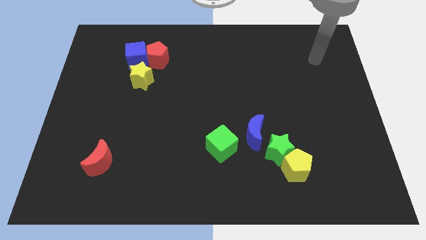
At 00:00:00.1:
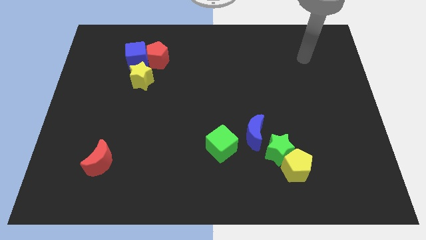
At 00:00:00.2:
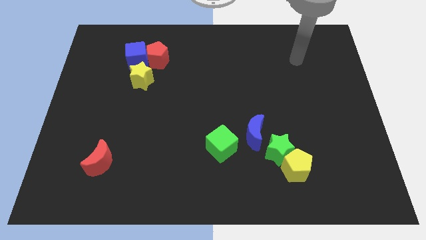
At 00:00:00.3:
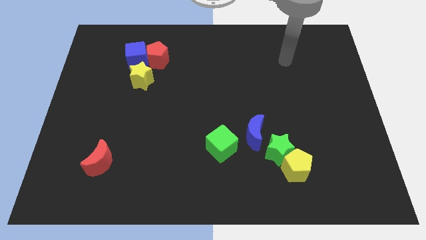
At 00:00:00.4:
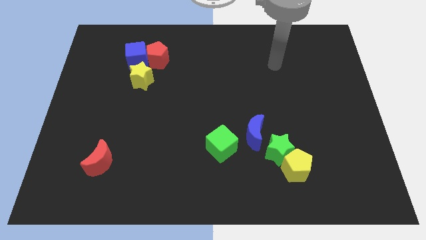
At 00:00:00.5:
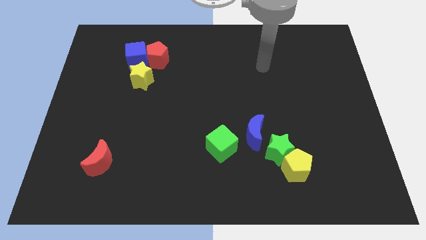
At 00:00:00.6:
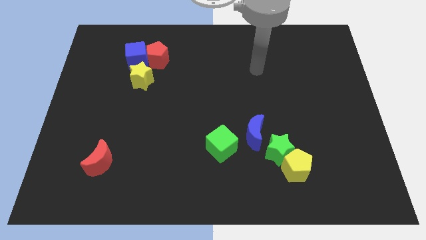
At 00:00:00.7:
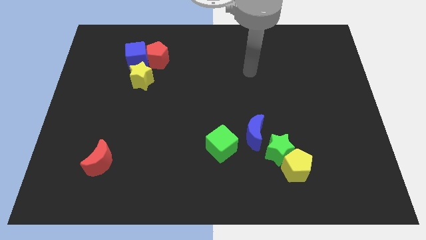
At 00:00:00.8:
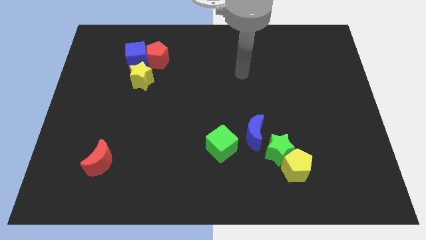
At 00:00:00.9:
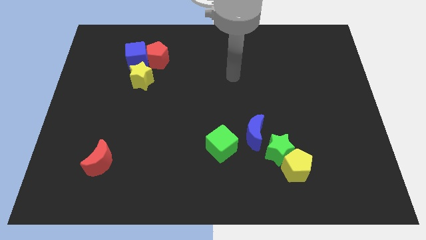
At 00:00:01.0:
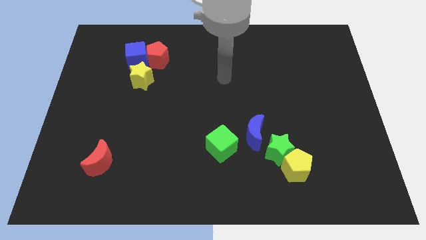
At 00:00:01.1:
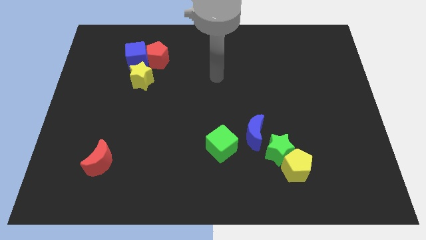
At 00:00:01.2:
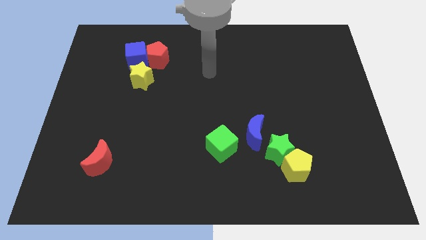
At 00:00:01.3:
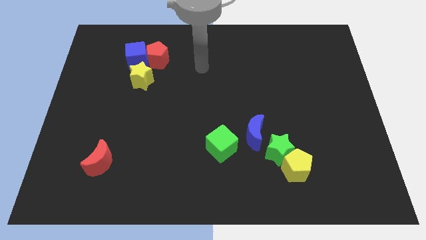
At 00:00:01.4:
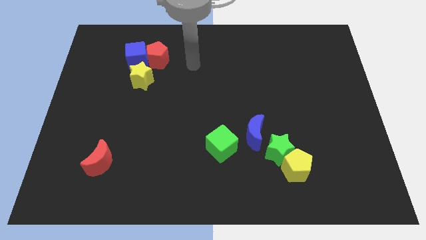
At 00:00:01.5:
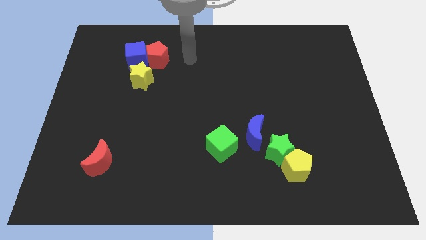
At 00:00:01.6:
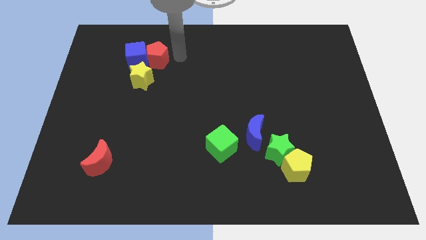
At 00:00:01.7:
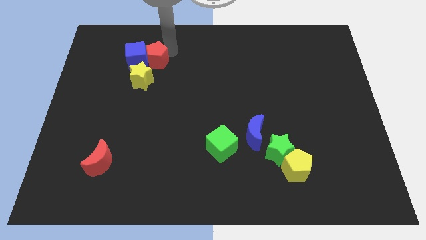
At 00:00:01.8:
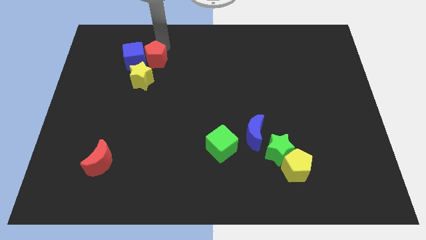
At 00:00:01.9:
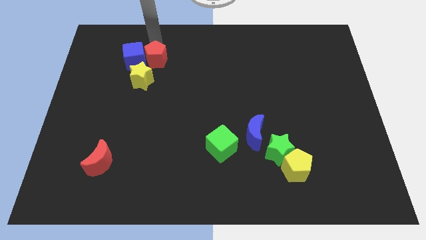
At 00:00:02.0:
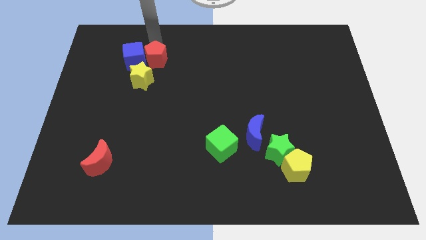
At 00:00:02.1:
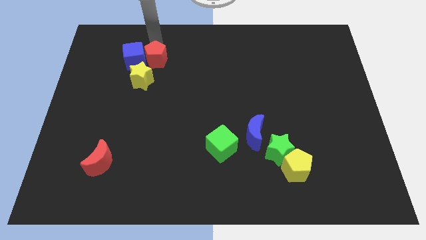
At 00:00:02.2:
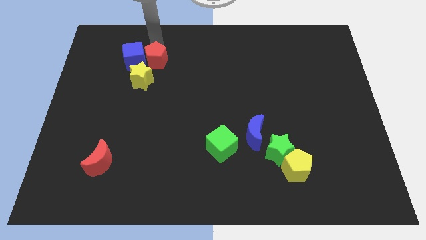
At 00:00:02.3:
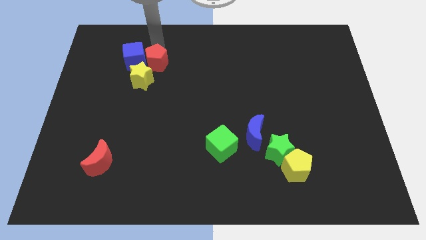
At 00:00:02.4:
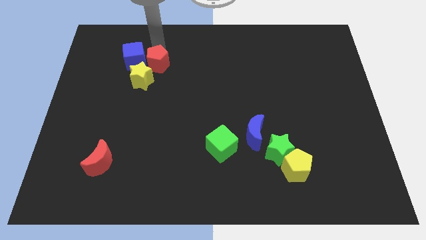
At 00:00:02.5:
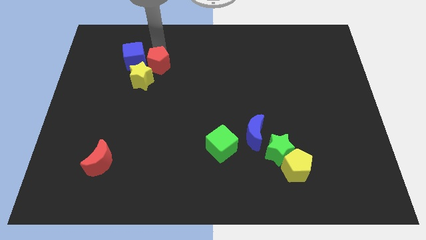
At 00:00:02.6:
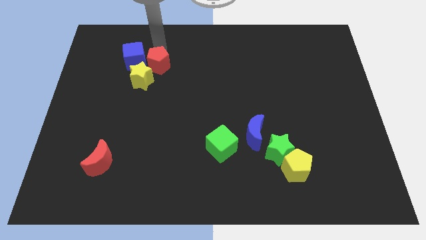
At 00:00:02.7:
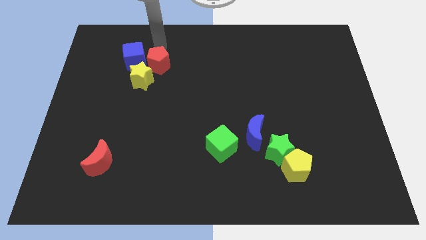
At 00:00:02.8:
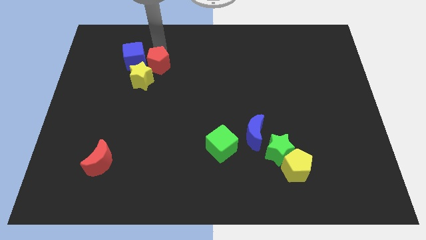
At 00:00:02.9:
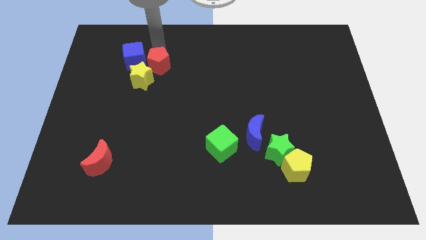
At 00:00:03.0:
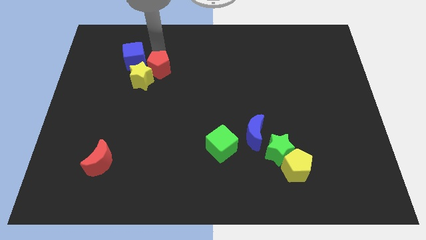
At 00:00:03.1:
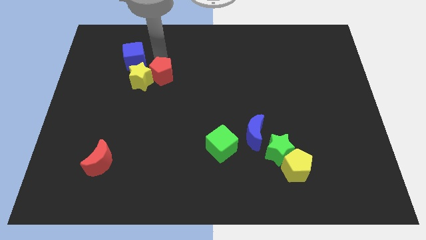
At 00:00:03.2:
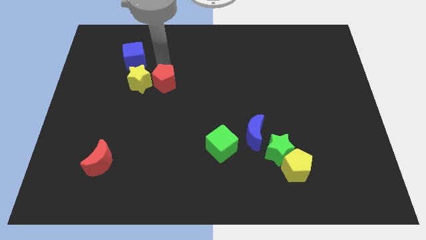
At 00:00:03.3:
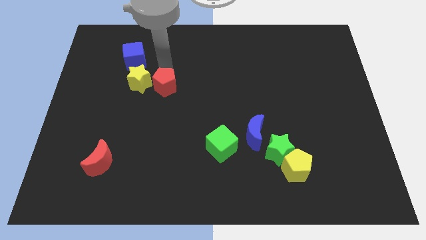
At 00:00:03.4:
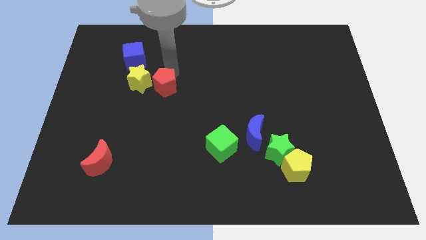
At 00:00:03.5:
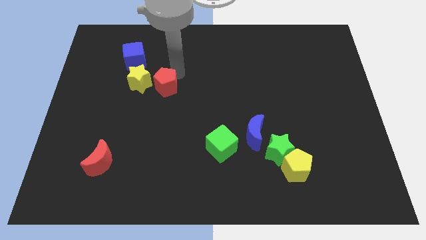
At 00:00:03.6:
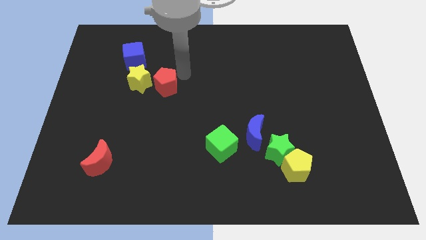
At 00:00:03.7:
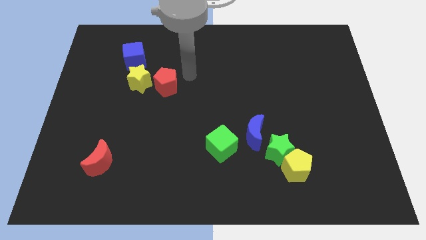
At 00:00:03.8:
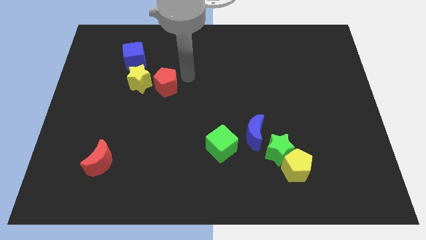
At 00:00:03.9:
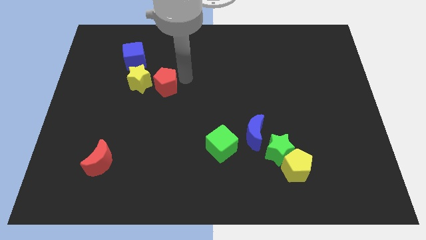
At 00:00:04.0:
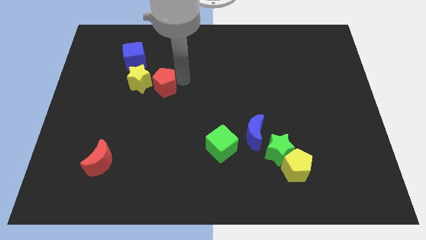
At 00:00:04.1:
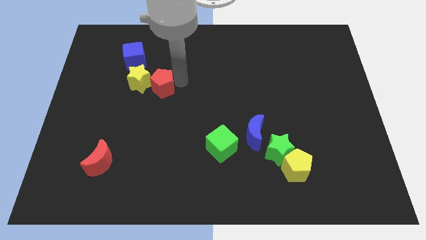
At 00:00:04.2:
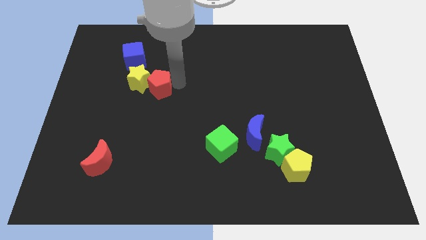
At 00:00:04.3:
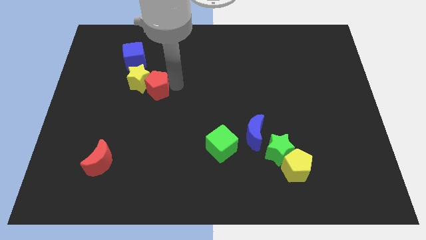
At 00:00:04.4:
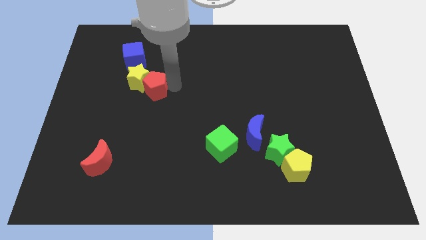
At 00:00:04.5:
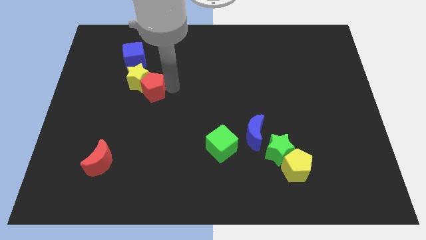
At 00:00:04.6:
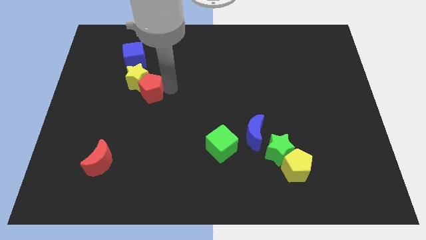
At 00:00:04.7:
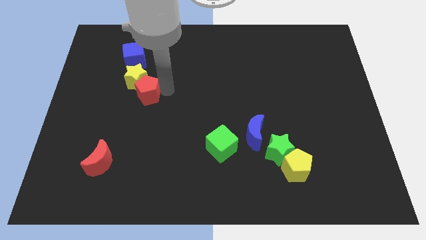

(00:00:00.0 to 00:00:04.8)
slide the red pentagon diagonally downwards and left slightly

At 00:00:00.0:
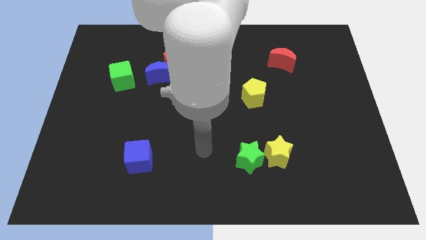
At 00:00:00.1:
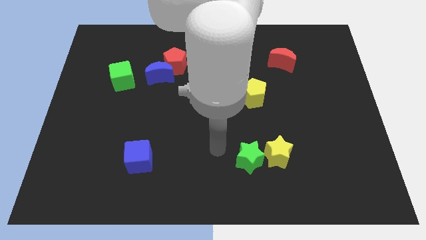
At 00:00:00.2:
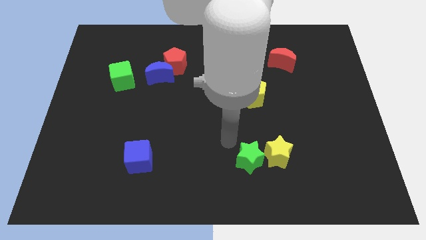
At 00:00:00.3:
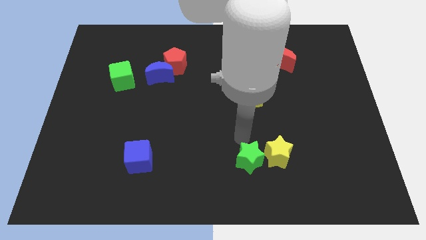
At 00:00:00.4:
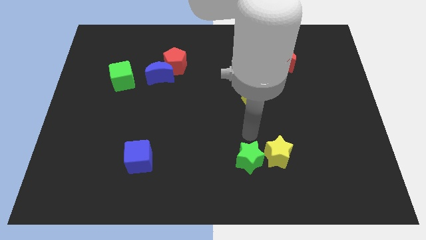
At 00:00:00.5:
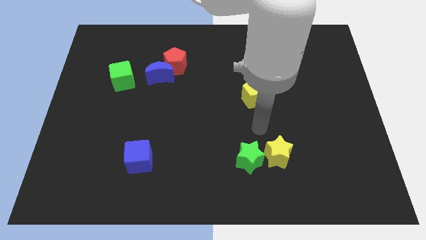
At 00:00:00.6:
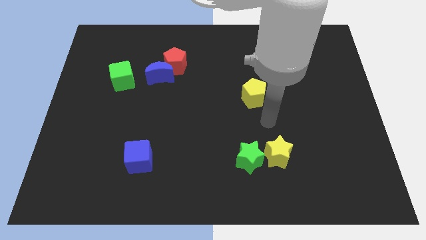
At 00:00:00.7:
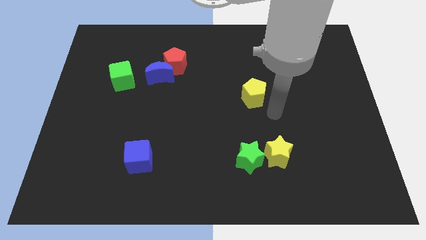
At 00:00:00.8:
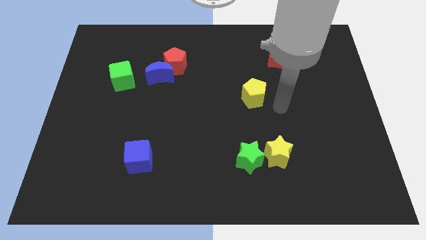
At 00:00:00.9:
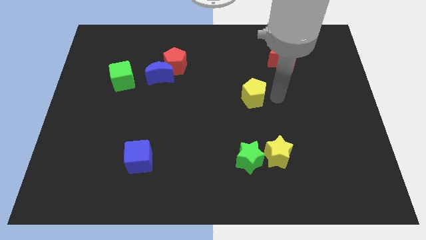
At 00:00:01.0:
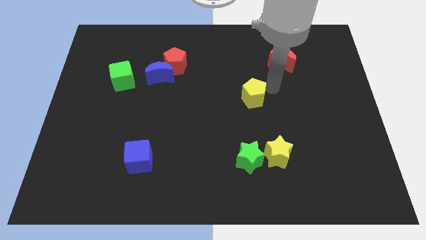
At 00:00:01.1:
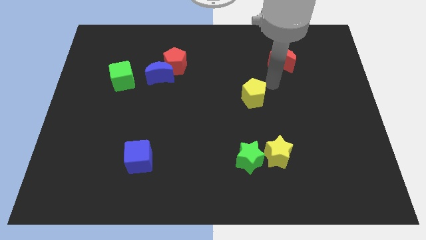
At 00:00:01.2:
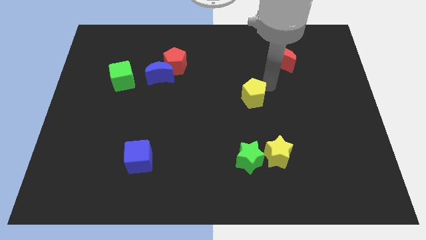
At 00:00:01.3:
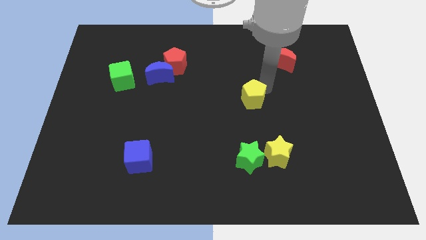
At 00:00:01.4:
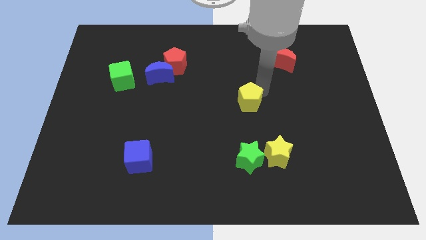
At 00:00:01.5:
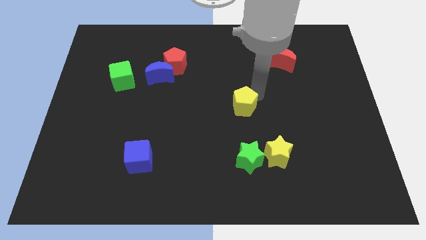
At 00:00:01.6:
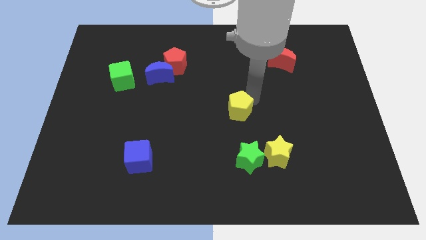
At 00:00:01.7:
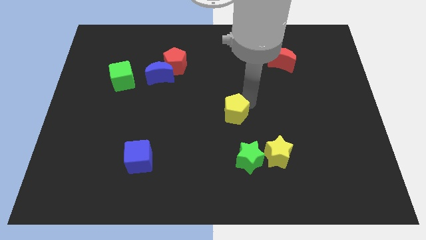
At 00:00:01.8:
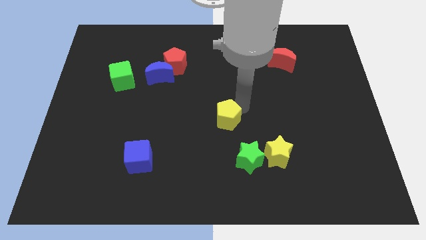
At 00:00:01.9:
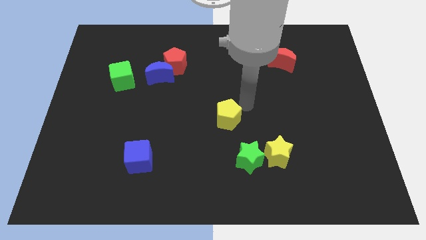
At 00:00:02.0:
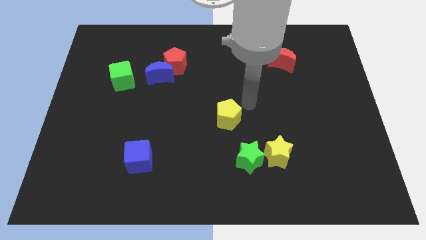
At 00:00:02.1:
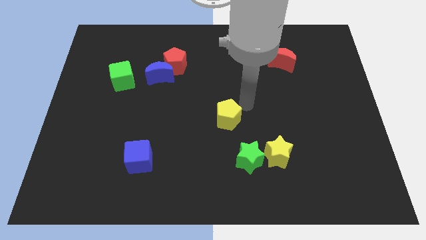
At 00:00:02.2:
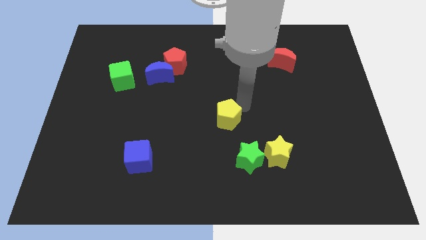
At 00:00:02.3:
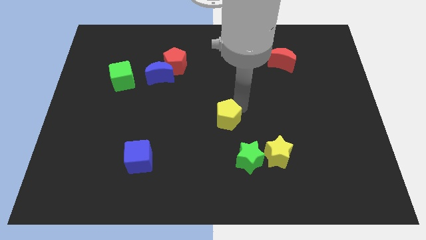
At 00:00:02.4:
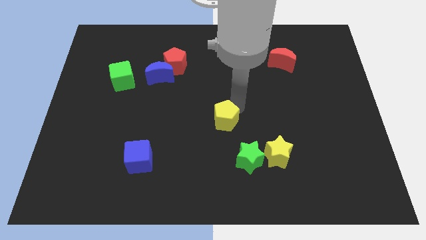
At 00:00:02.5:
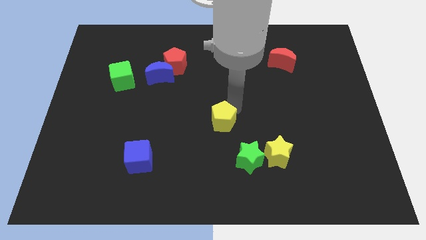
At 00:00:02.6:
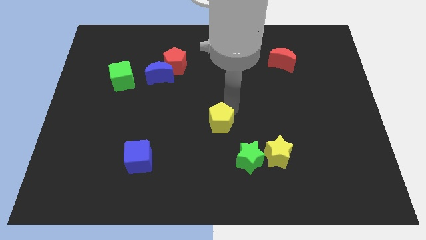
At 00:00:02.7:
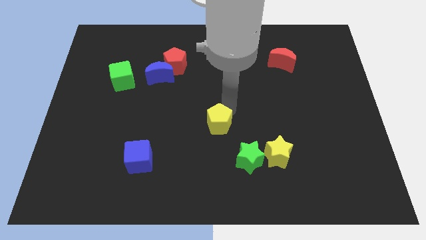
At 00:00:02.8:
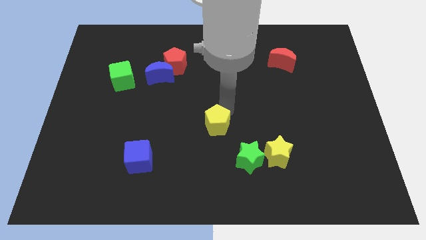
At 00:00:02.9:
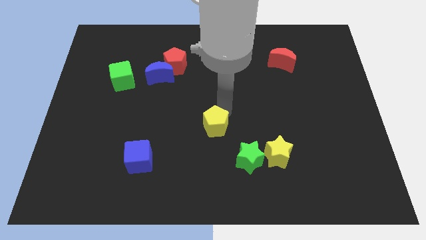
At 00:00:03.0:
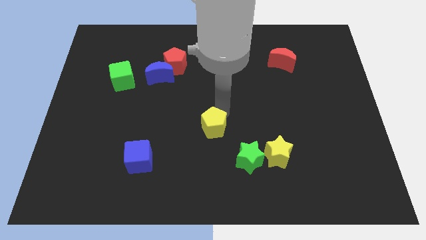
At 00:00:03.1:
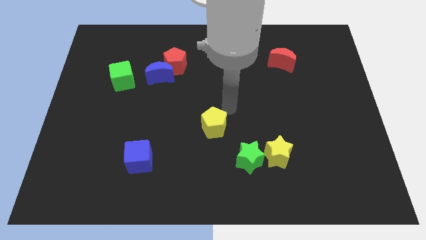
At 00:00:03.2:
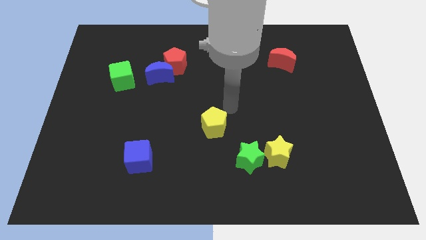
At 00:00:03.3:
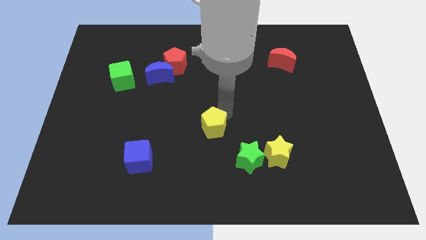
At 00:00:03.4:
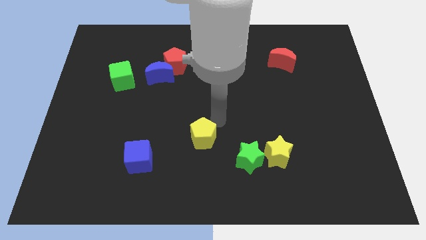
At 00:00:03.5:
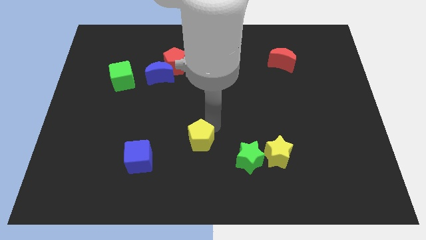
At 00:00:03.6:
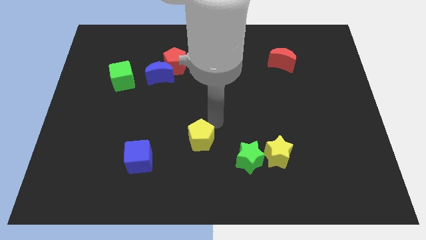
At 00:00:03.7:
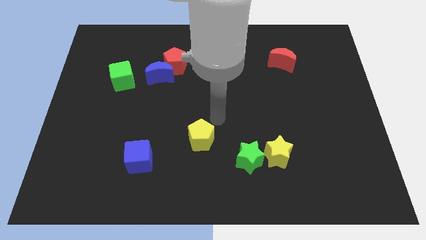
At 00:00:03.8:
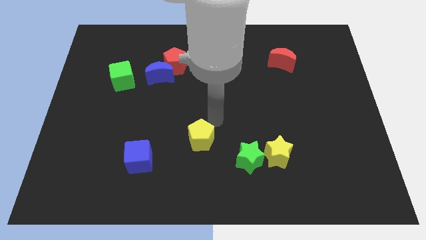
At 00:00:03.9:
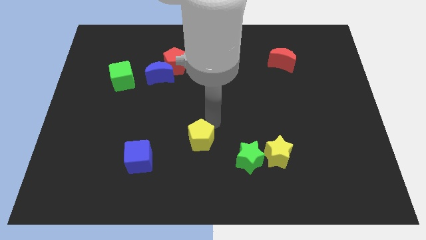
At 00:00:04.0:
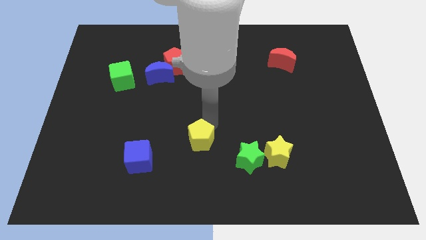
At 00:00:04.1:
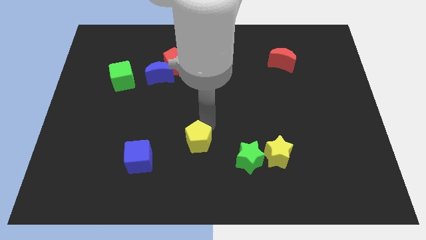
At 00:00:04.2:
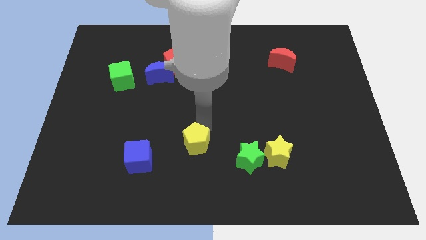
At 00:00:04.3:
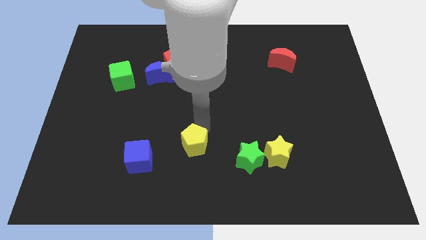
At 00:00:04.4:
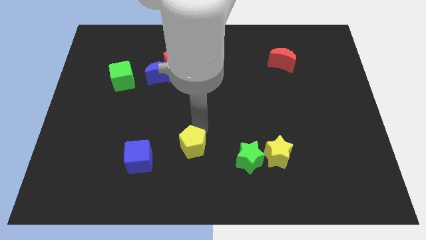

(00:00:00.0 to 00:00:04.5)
move the yellow pentagon diagonally downwards and to the left
